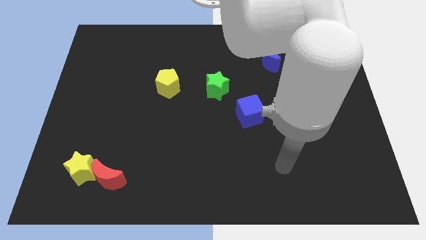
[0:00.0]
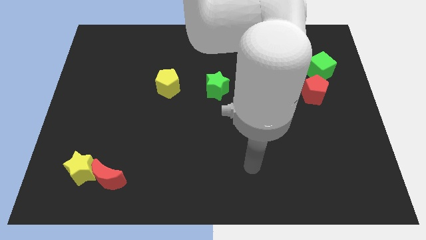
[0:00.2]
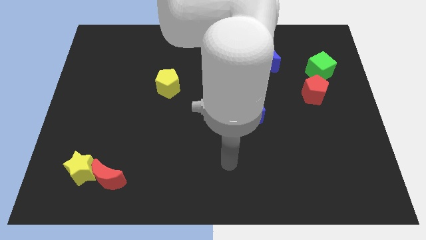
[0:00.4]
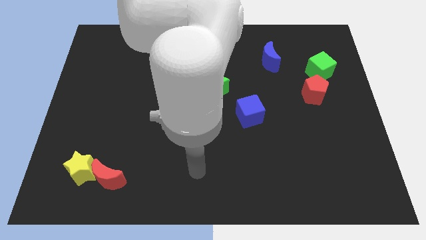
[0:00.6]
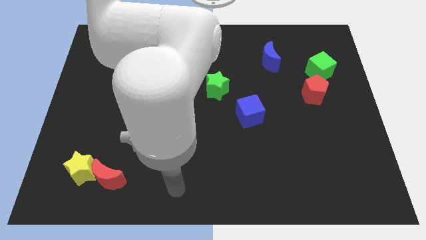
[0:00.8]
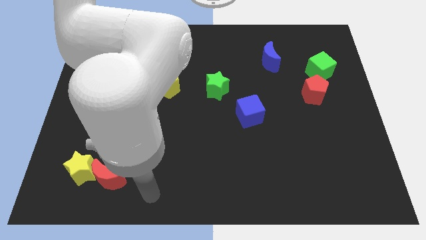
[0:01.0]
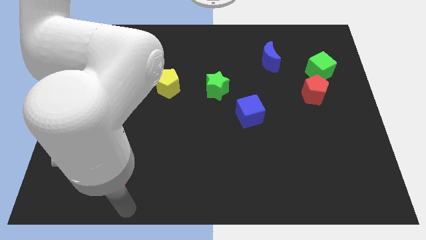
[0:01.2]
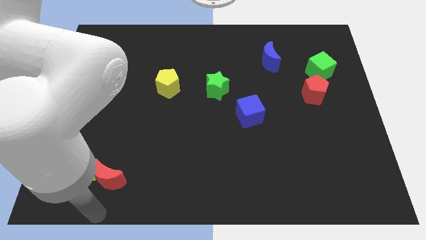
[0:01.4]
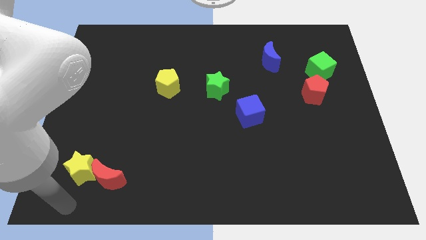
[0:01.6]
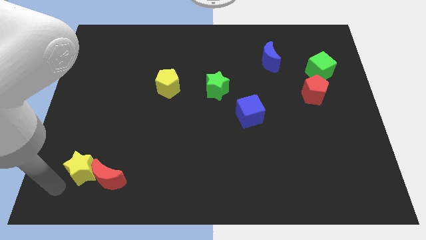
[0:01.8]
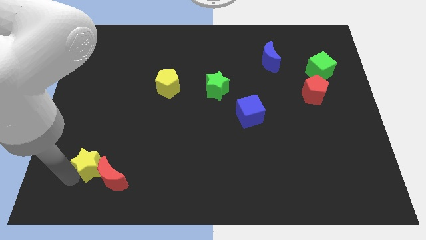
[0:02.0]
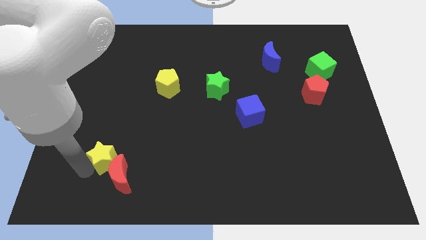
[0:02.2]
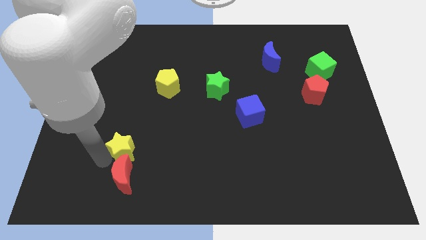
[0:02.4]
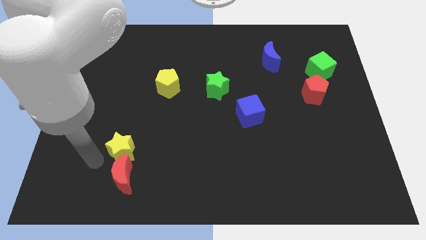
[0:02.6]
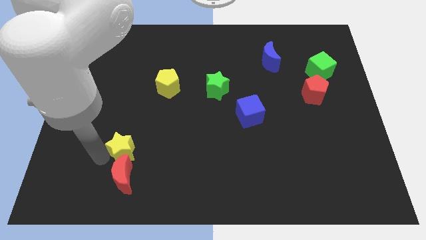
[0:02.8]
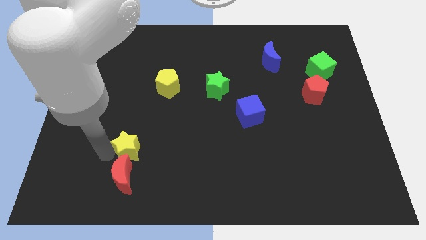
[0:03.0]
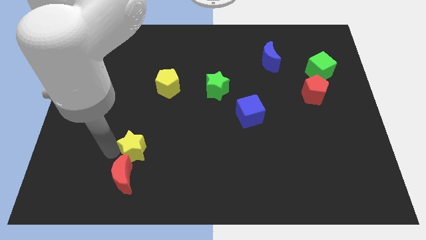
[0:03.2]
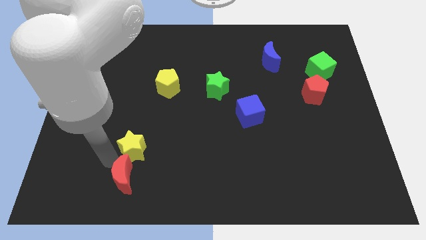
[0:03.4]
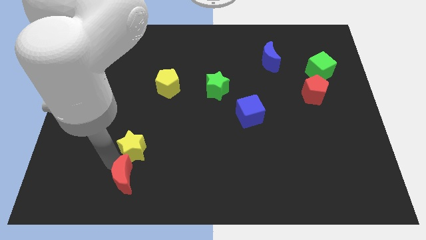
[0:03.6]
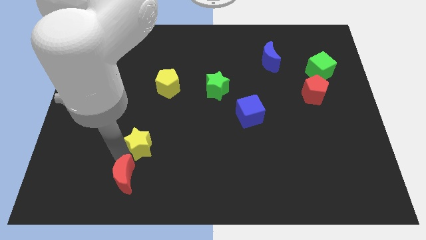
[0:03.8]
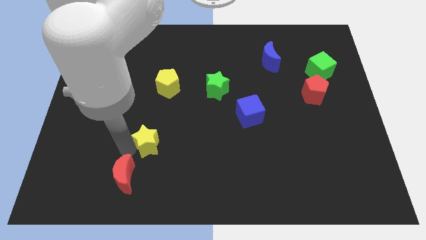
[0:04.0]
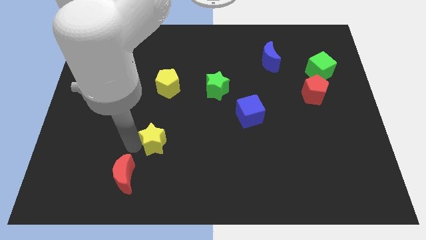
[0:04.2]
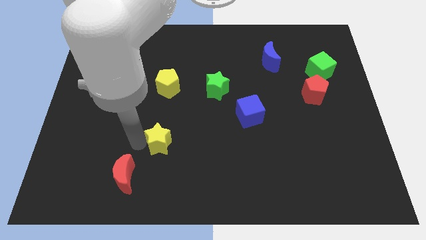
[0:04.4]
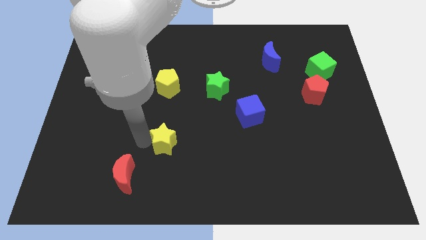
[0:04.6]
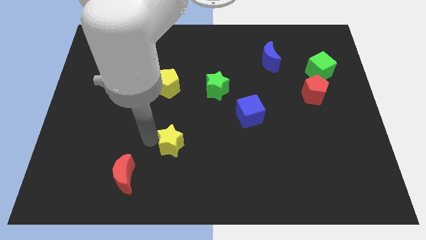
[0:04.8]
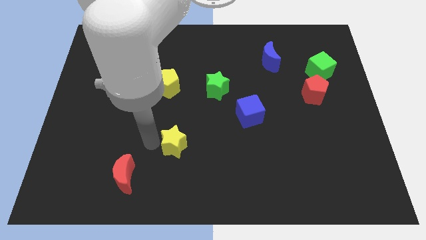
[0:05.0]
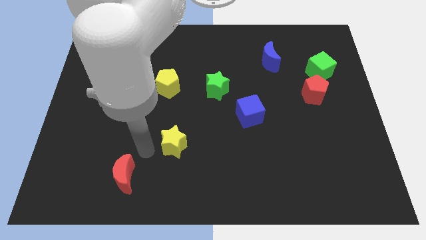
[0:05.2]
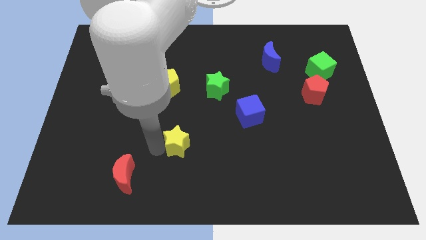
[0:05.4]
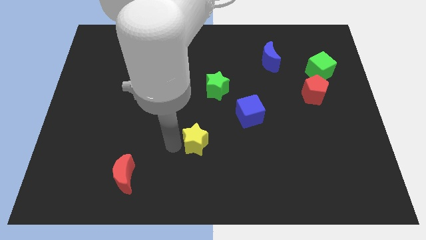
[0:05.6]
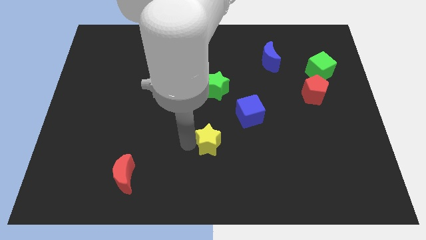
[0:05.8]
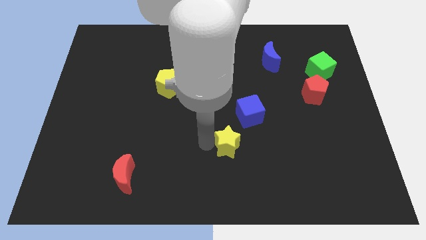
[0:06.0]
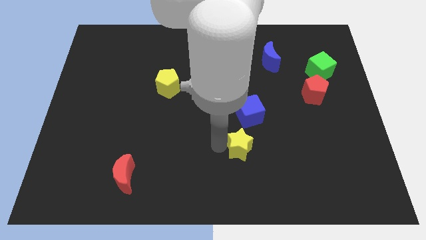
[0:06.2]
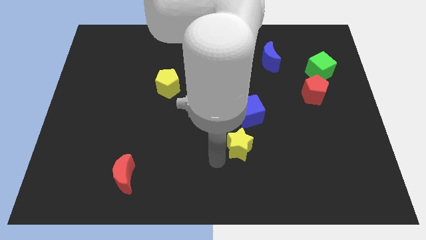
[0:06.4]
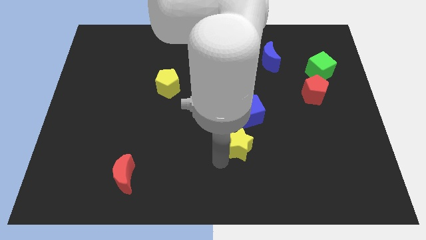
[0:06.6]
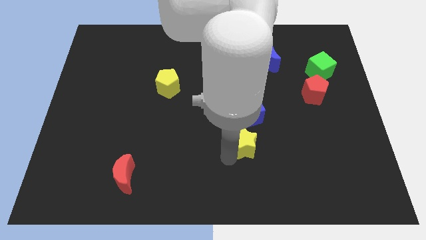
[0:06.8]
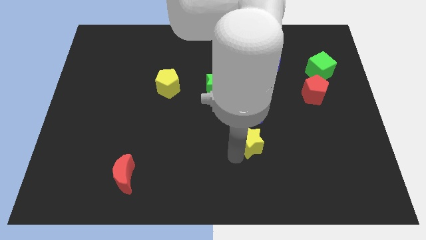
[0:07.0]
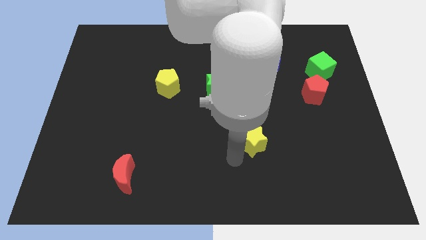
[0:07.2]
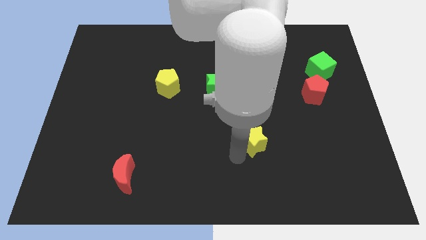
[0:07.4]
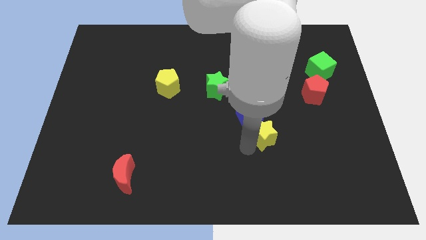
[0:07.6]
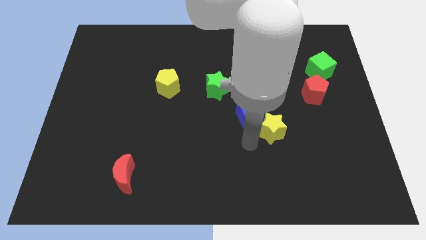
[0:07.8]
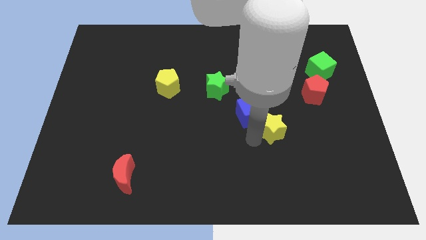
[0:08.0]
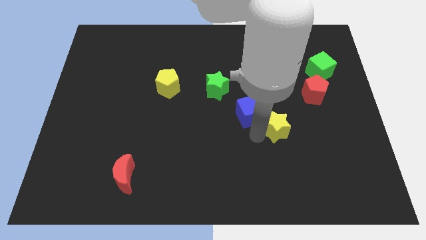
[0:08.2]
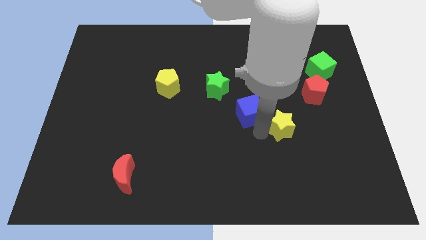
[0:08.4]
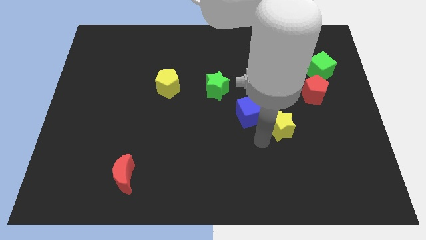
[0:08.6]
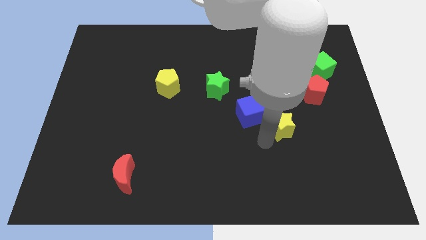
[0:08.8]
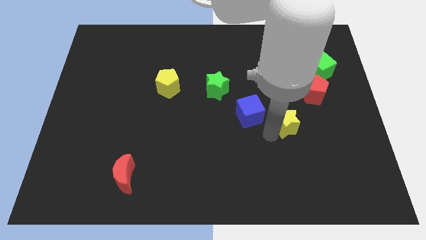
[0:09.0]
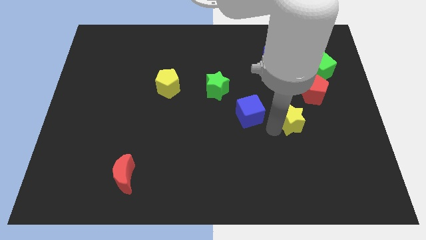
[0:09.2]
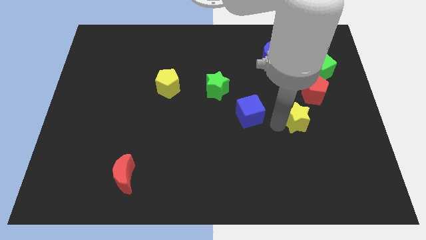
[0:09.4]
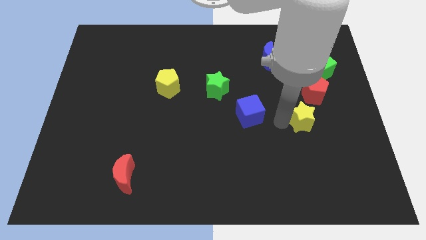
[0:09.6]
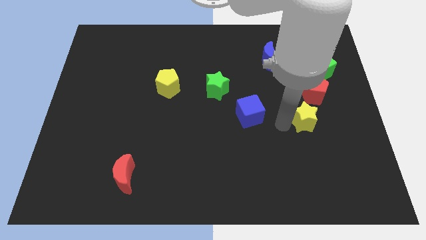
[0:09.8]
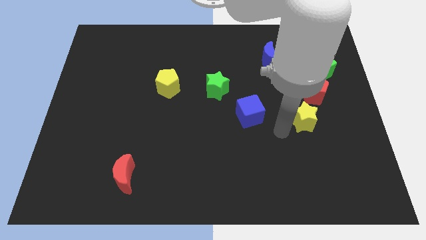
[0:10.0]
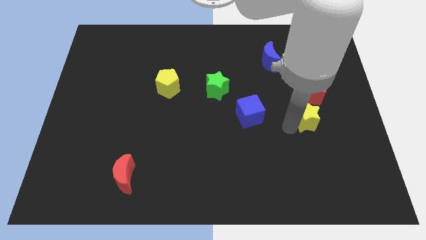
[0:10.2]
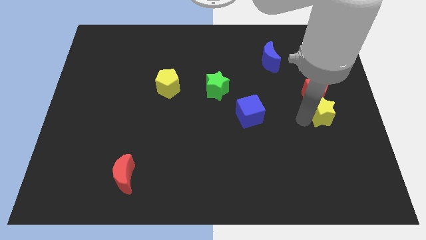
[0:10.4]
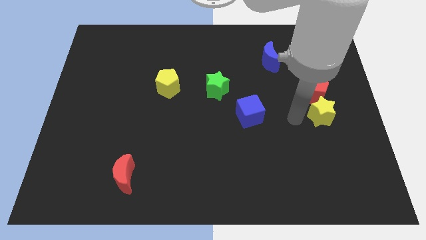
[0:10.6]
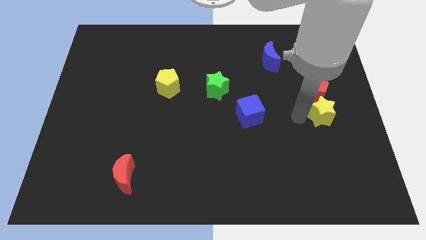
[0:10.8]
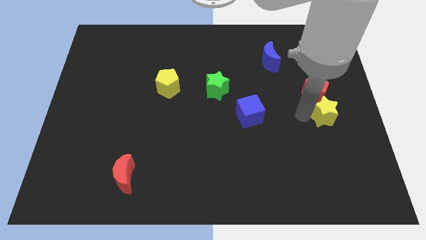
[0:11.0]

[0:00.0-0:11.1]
slide the yellow star to the right side

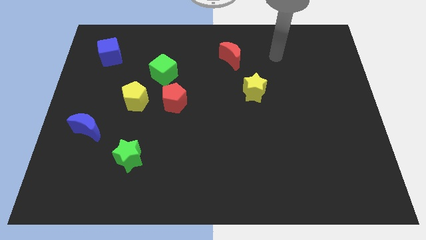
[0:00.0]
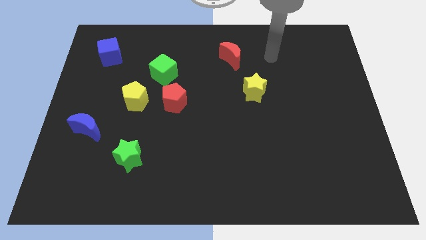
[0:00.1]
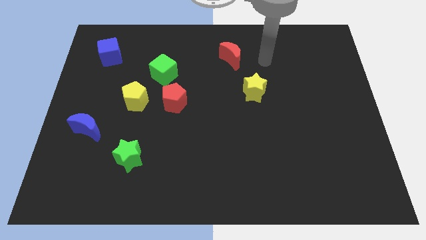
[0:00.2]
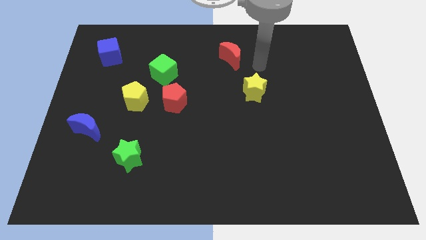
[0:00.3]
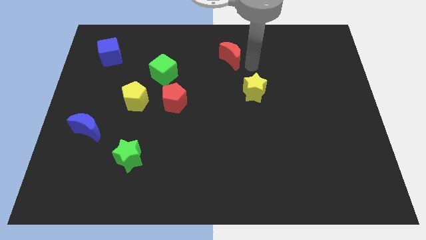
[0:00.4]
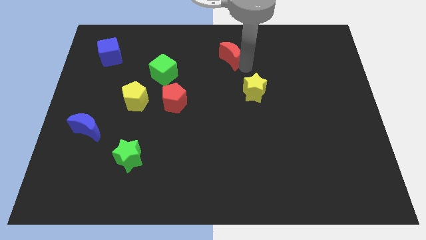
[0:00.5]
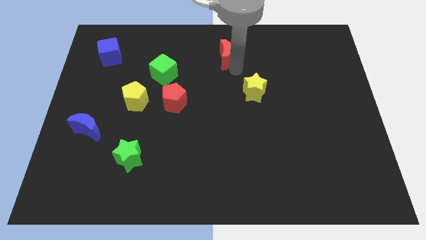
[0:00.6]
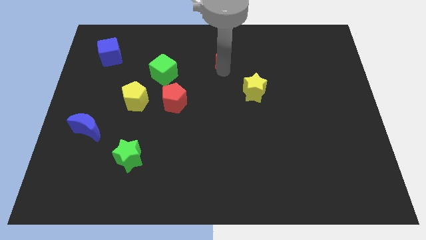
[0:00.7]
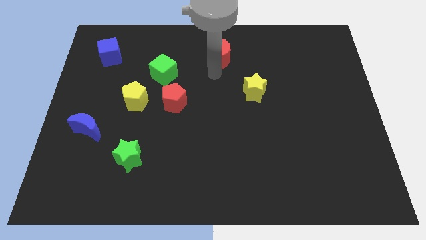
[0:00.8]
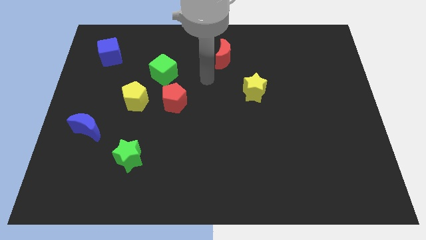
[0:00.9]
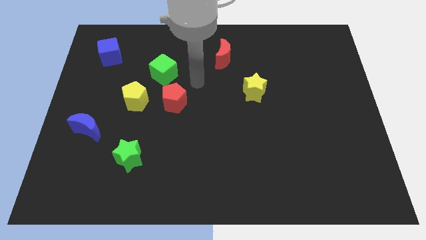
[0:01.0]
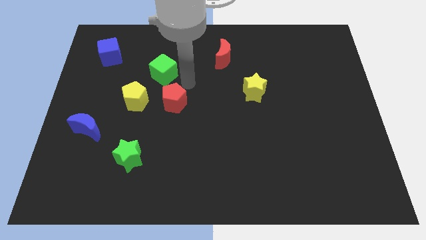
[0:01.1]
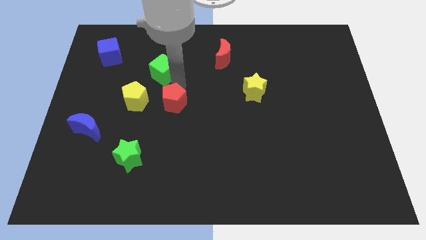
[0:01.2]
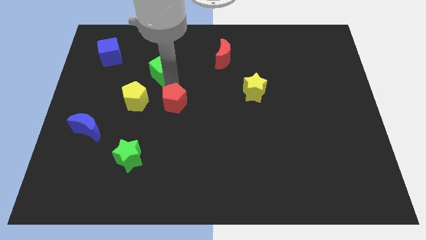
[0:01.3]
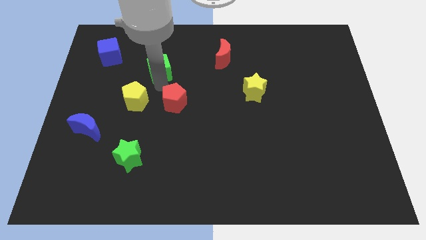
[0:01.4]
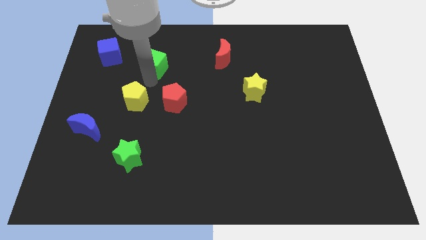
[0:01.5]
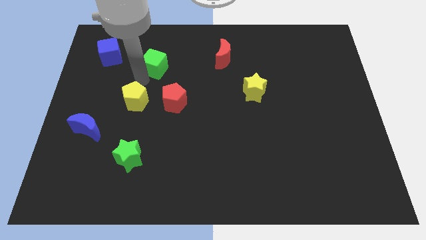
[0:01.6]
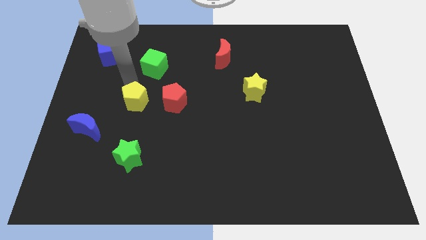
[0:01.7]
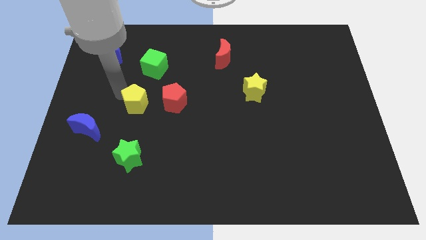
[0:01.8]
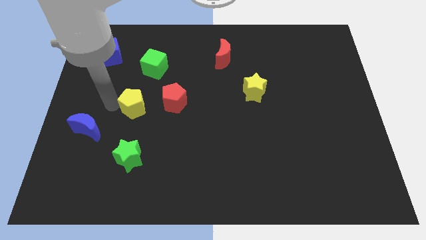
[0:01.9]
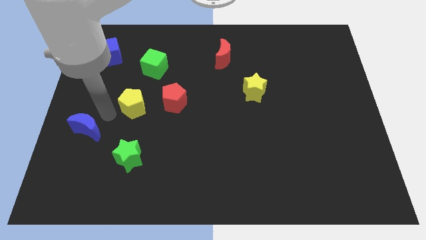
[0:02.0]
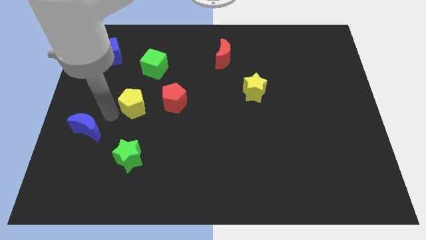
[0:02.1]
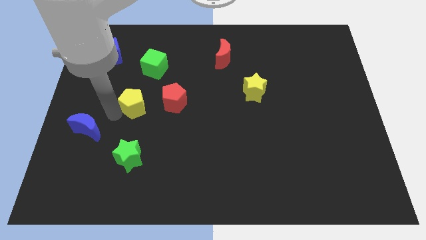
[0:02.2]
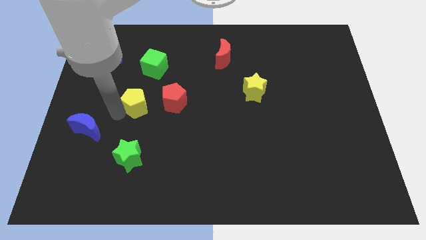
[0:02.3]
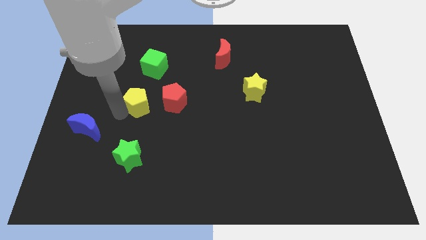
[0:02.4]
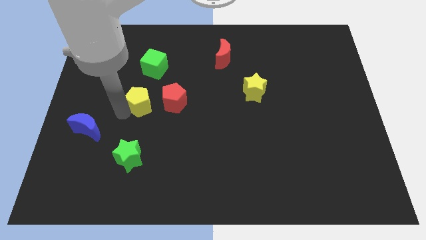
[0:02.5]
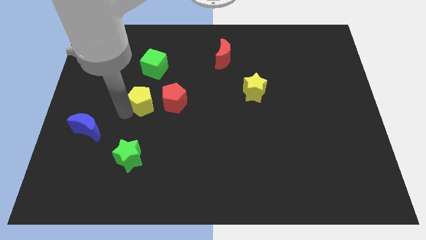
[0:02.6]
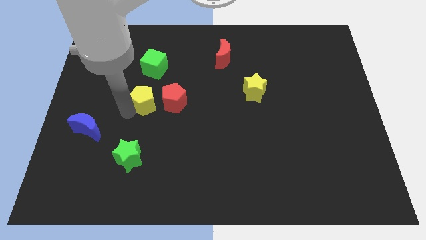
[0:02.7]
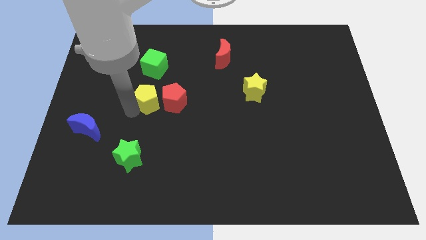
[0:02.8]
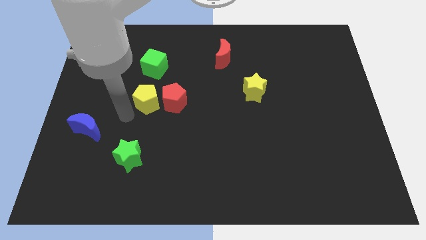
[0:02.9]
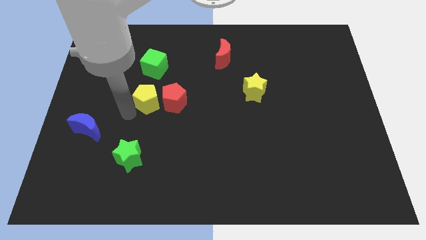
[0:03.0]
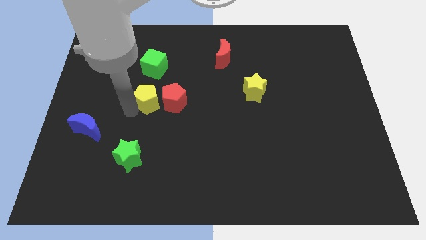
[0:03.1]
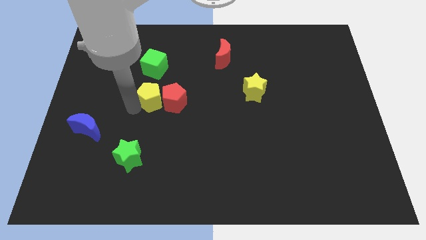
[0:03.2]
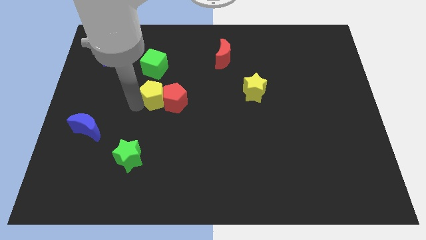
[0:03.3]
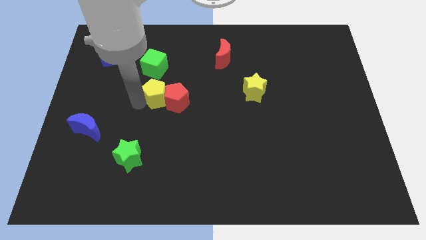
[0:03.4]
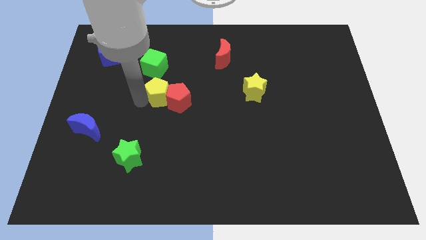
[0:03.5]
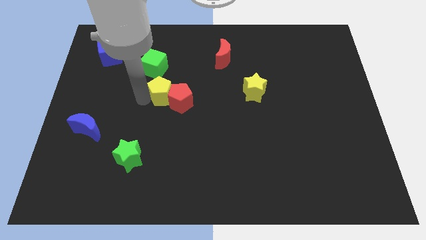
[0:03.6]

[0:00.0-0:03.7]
slide the yellow pentagon to the center of the board
